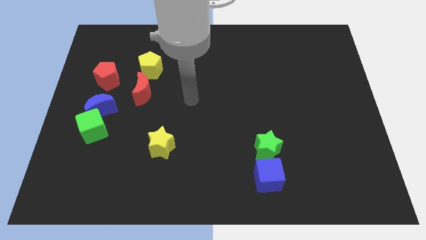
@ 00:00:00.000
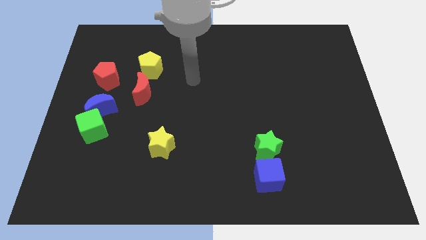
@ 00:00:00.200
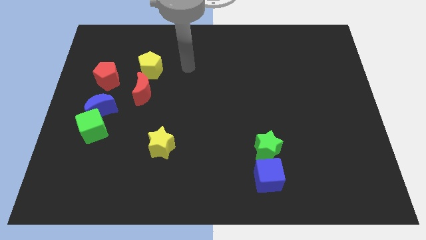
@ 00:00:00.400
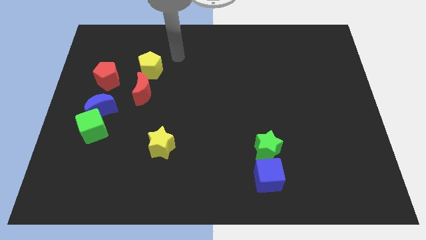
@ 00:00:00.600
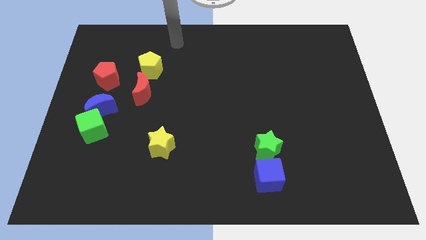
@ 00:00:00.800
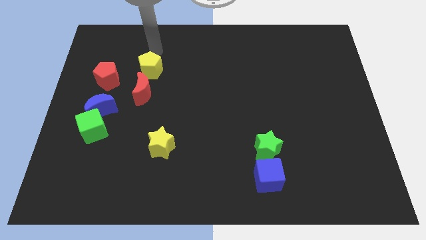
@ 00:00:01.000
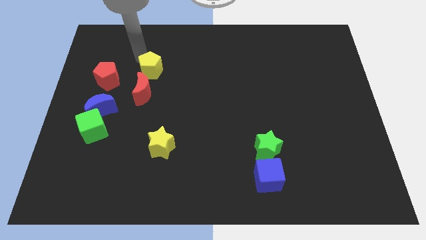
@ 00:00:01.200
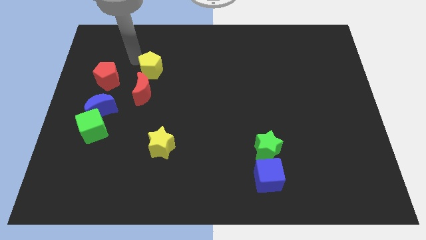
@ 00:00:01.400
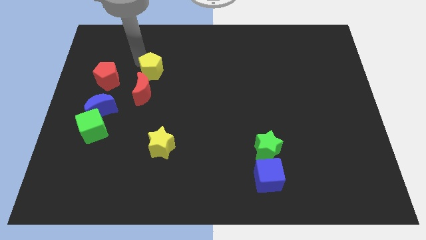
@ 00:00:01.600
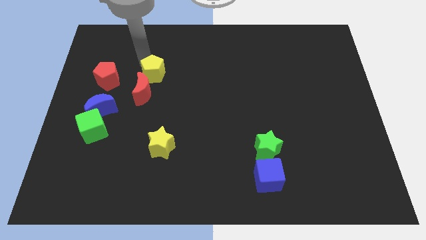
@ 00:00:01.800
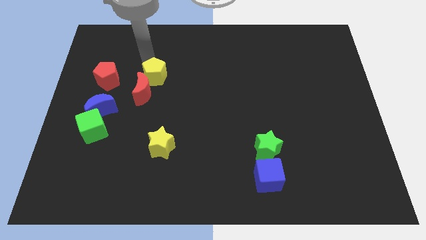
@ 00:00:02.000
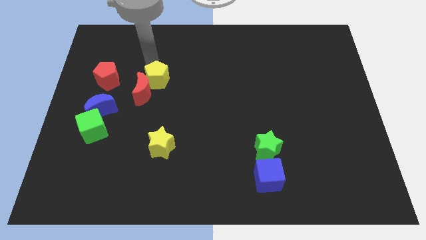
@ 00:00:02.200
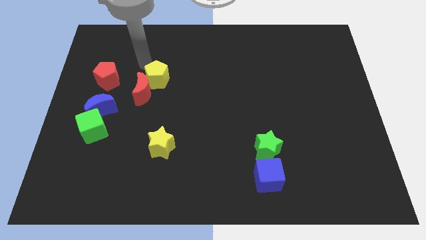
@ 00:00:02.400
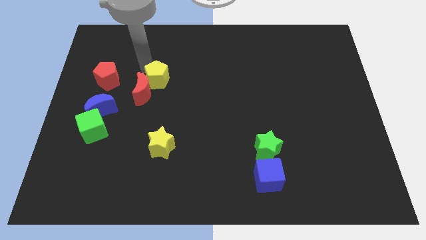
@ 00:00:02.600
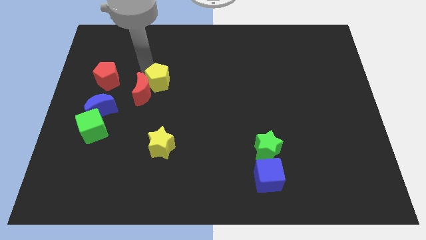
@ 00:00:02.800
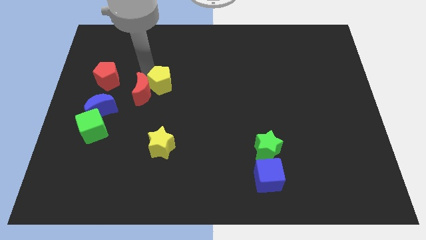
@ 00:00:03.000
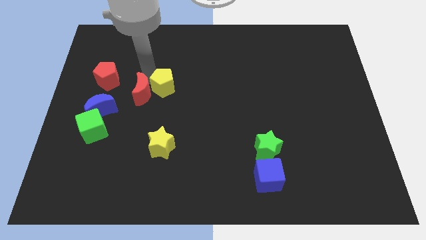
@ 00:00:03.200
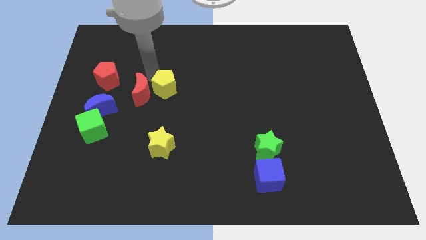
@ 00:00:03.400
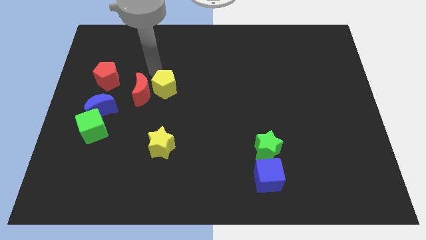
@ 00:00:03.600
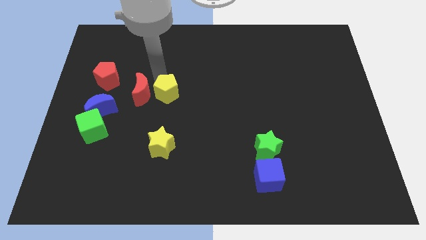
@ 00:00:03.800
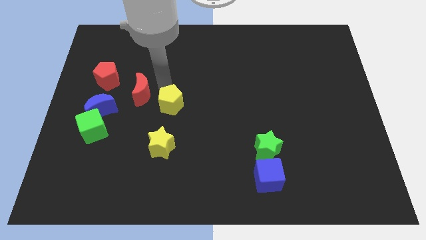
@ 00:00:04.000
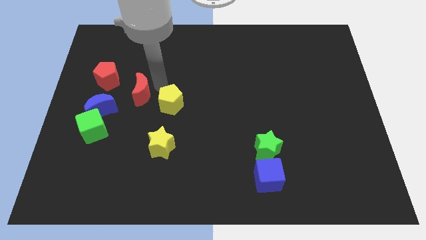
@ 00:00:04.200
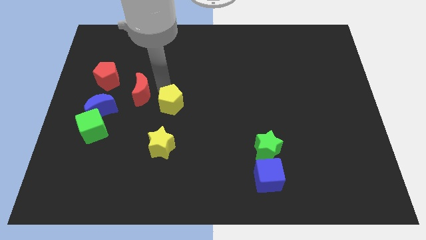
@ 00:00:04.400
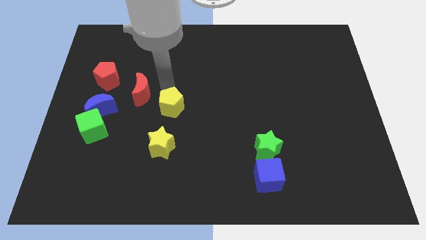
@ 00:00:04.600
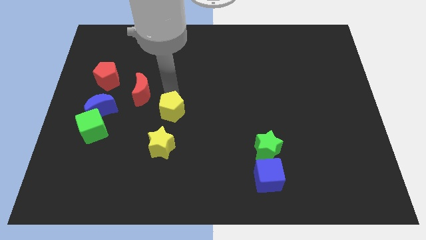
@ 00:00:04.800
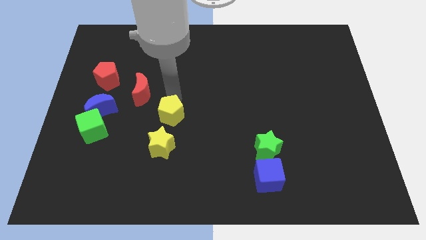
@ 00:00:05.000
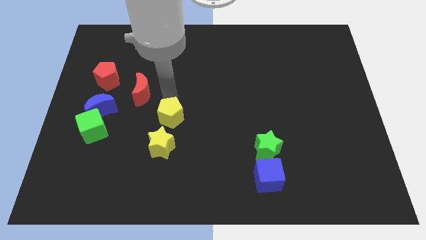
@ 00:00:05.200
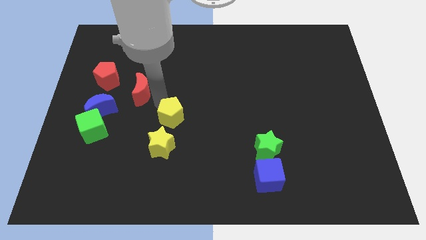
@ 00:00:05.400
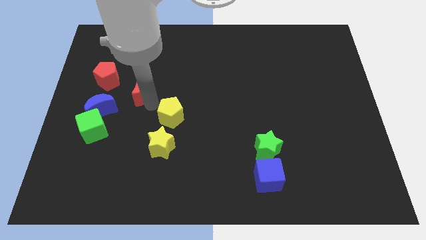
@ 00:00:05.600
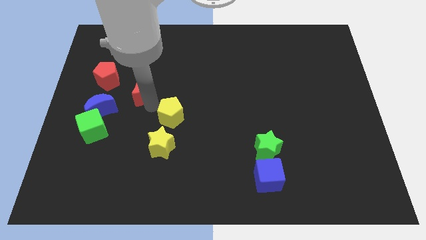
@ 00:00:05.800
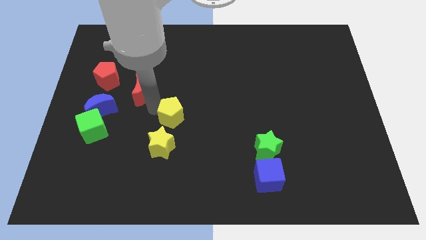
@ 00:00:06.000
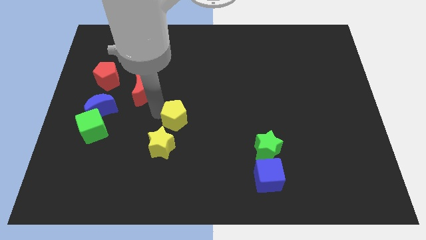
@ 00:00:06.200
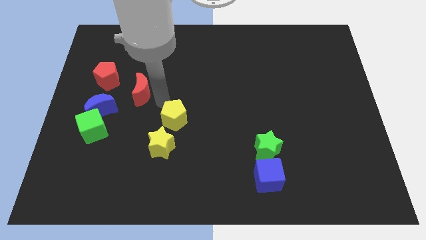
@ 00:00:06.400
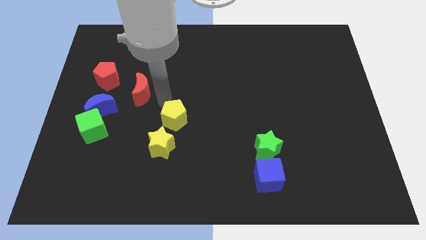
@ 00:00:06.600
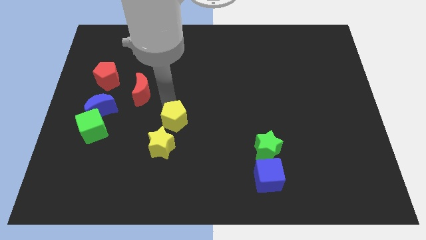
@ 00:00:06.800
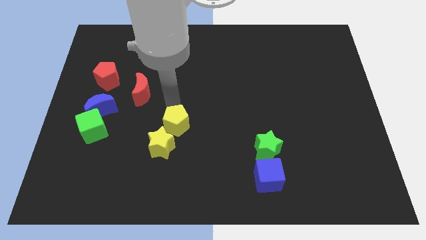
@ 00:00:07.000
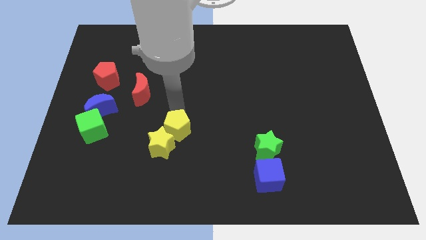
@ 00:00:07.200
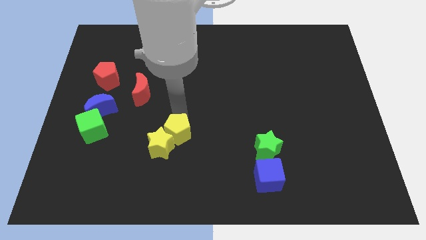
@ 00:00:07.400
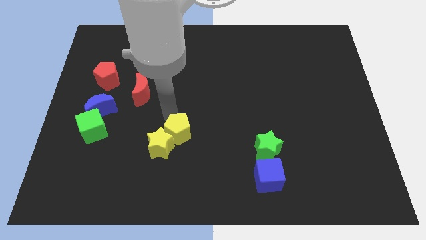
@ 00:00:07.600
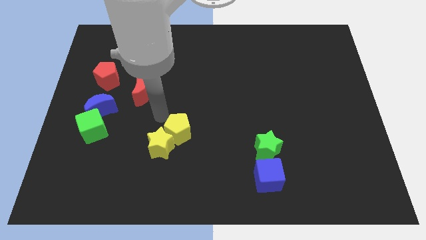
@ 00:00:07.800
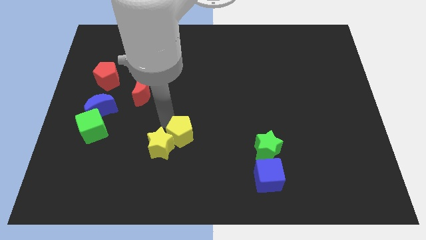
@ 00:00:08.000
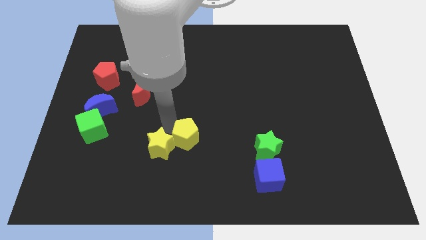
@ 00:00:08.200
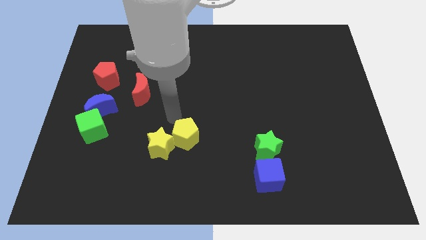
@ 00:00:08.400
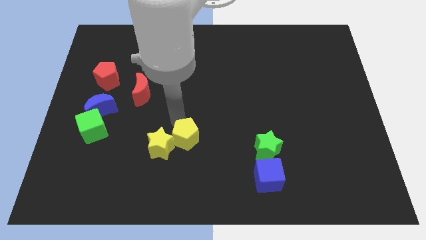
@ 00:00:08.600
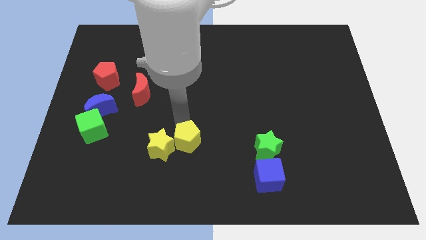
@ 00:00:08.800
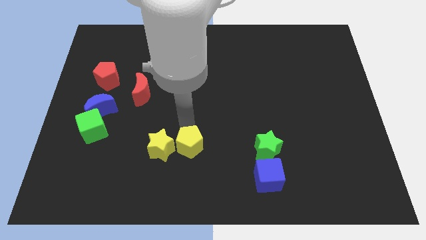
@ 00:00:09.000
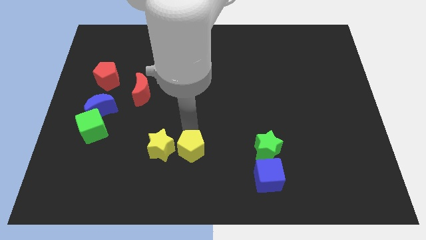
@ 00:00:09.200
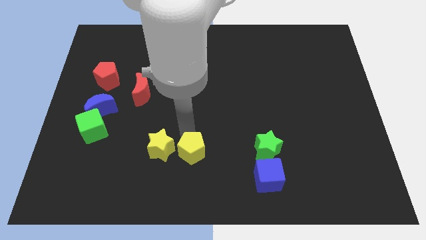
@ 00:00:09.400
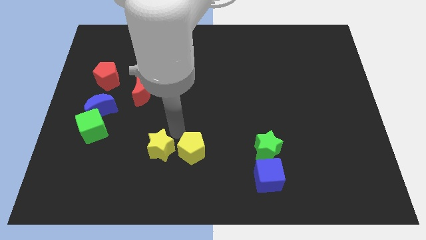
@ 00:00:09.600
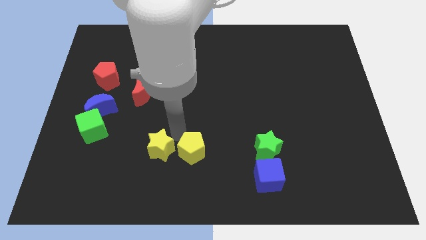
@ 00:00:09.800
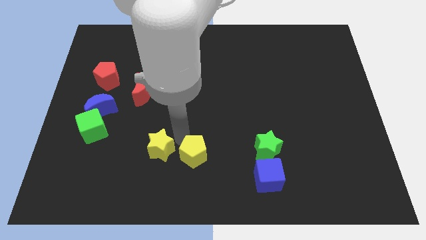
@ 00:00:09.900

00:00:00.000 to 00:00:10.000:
put the yellow pentagon to the bottom

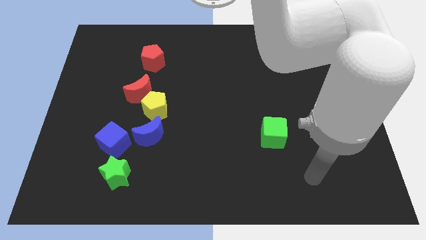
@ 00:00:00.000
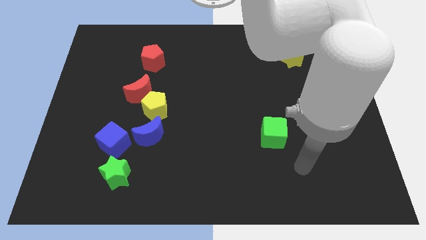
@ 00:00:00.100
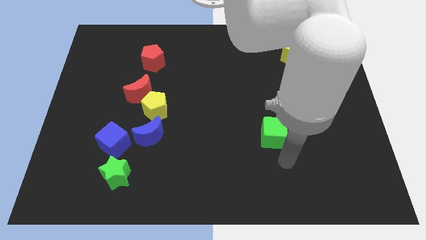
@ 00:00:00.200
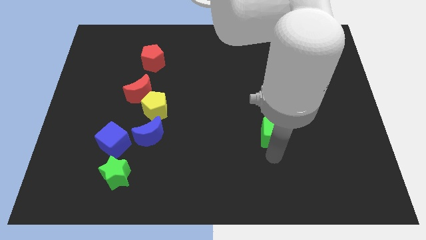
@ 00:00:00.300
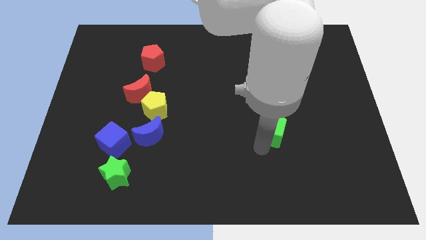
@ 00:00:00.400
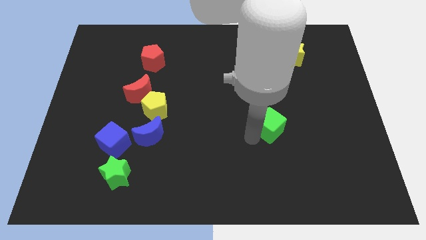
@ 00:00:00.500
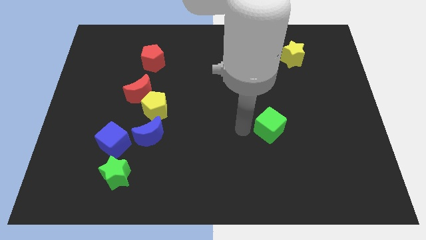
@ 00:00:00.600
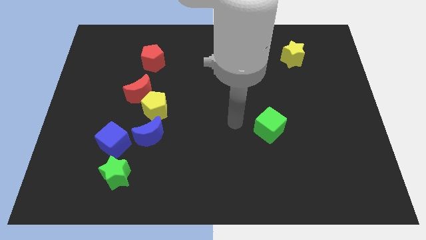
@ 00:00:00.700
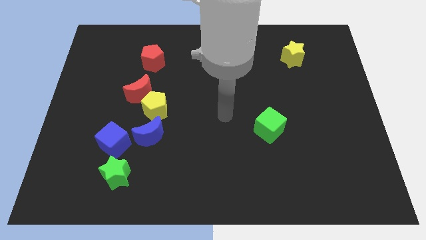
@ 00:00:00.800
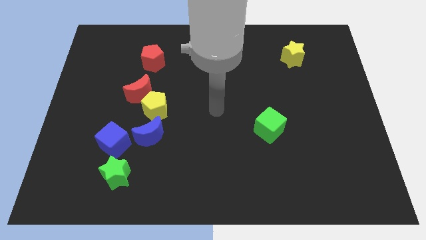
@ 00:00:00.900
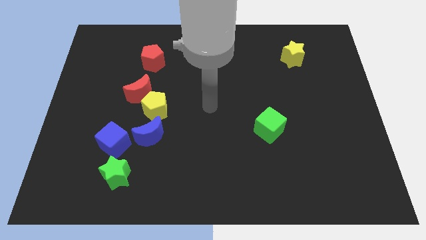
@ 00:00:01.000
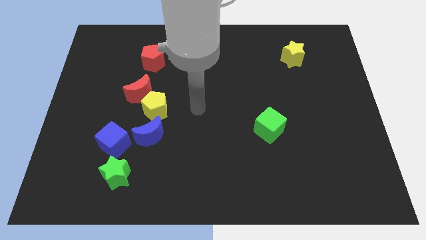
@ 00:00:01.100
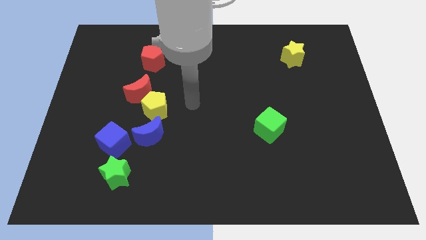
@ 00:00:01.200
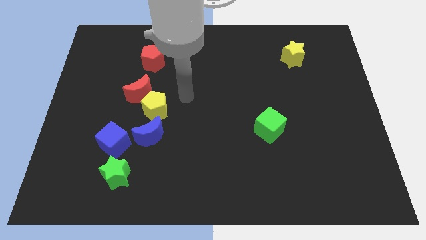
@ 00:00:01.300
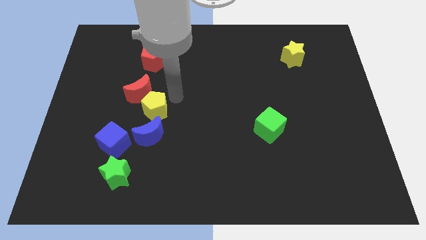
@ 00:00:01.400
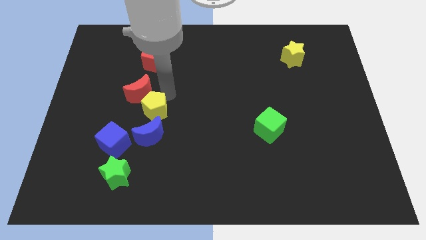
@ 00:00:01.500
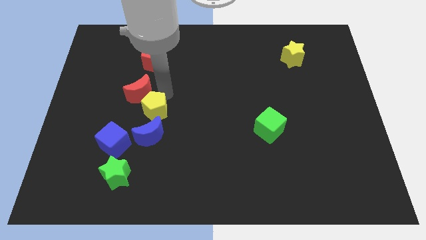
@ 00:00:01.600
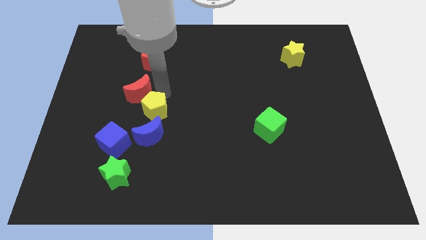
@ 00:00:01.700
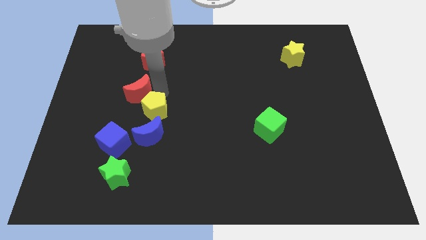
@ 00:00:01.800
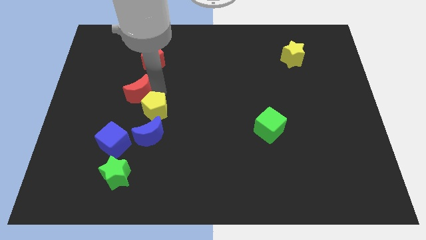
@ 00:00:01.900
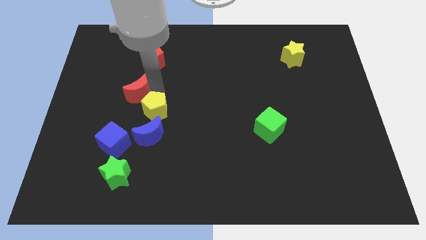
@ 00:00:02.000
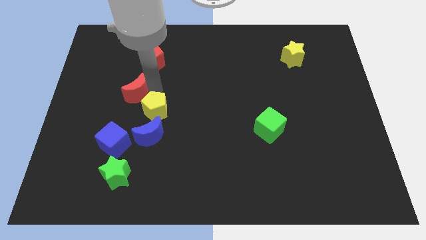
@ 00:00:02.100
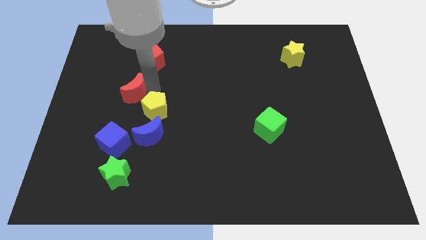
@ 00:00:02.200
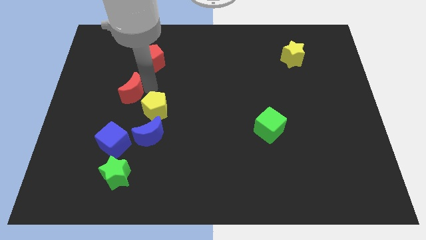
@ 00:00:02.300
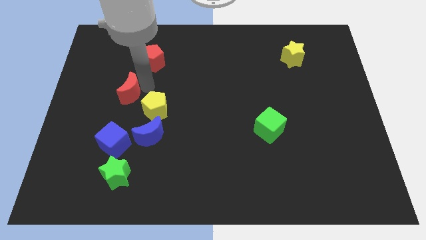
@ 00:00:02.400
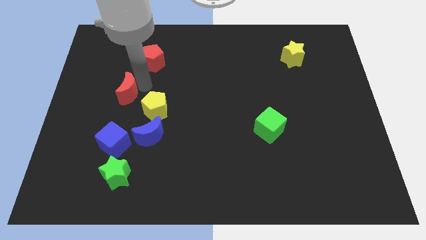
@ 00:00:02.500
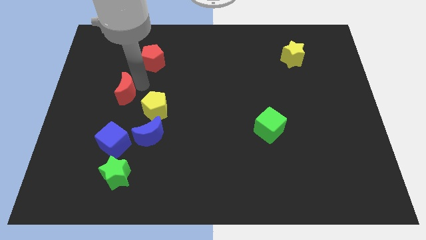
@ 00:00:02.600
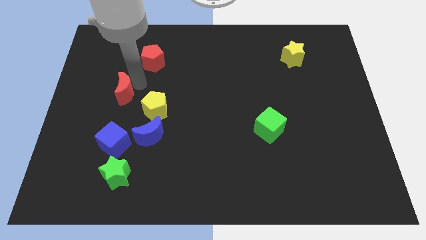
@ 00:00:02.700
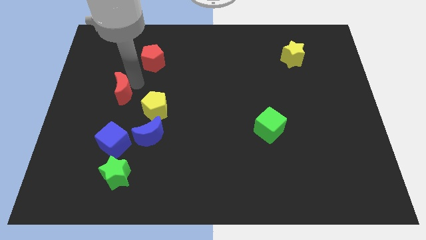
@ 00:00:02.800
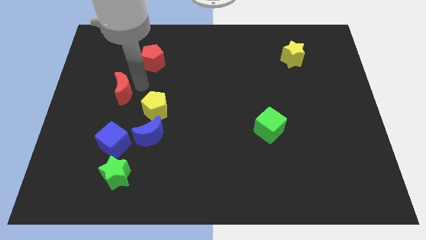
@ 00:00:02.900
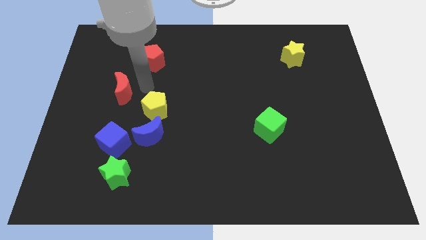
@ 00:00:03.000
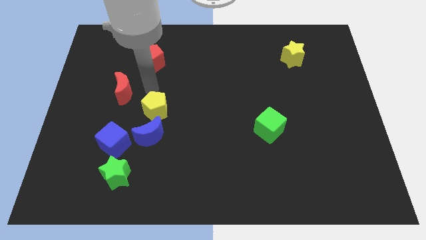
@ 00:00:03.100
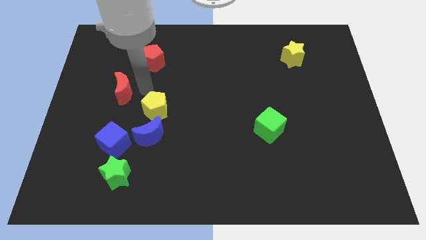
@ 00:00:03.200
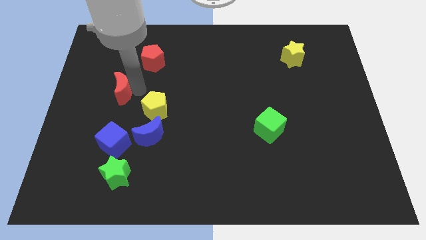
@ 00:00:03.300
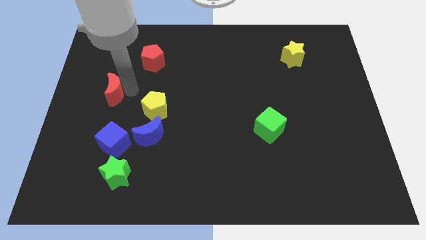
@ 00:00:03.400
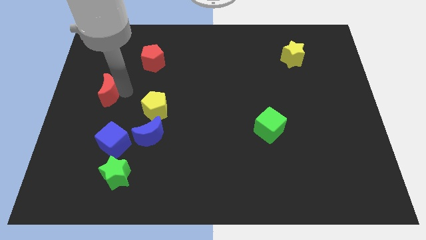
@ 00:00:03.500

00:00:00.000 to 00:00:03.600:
push the red moon to the center left
